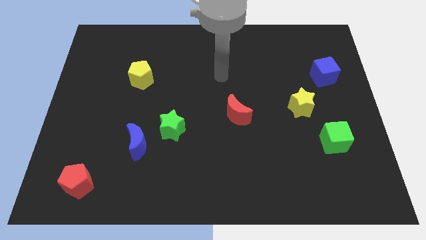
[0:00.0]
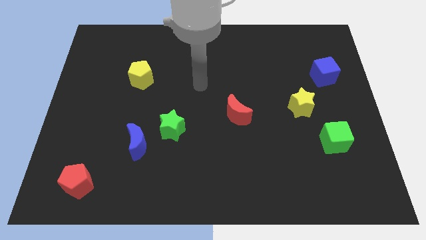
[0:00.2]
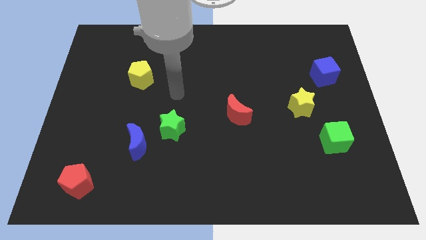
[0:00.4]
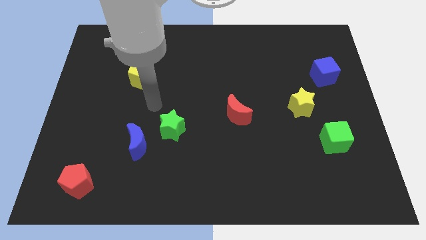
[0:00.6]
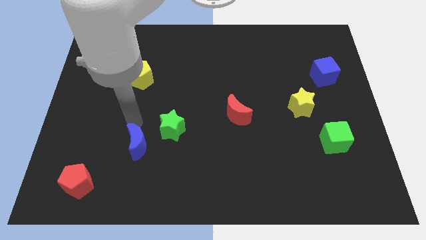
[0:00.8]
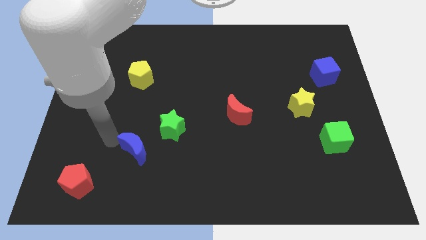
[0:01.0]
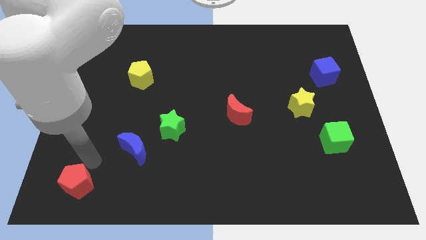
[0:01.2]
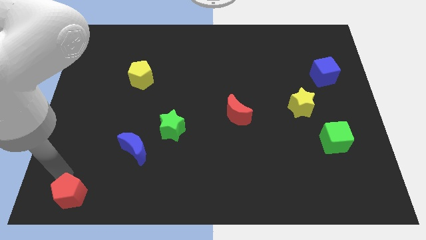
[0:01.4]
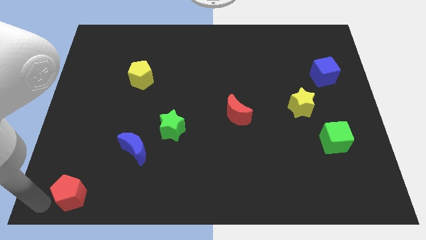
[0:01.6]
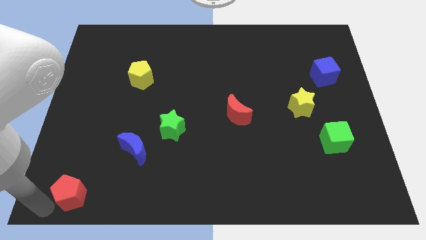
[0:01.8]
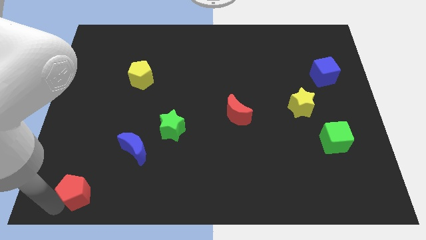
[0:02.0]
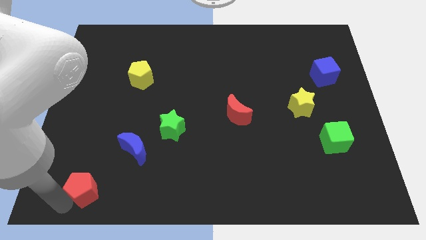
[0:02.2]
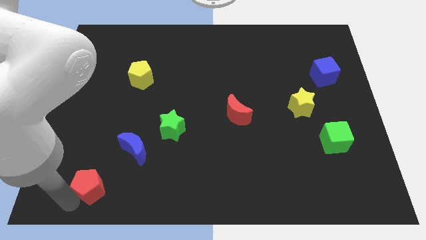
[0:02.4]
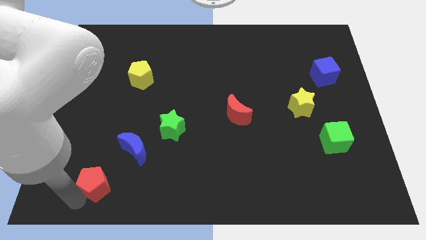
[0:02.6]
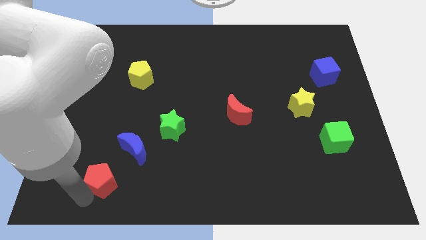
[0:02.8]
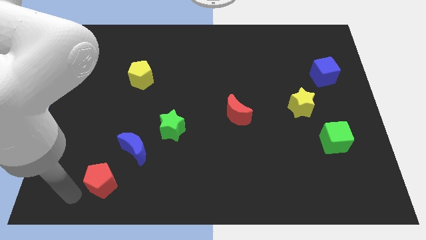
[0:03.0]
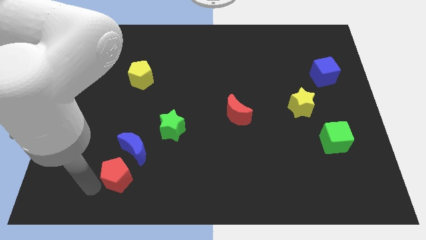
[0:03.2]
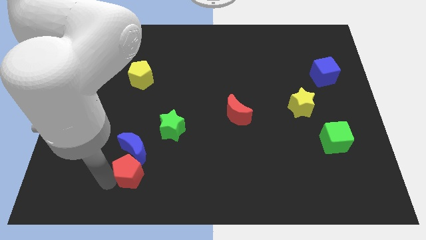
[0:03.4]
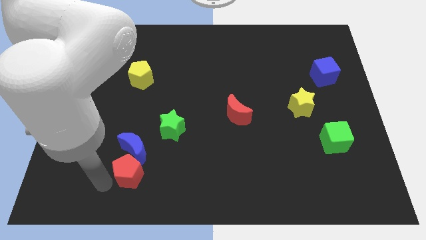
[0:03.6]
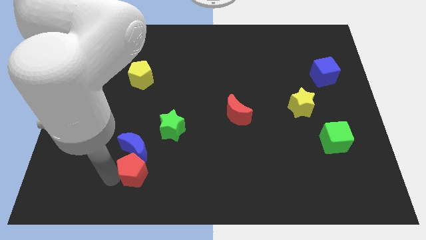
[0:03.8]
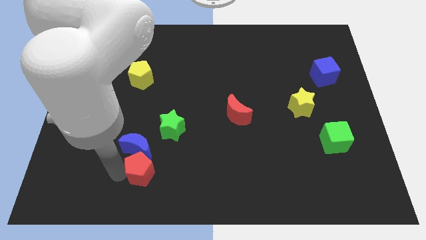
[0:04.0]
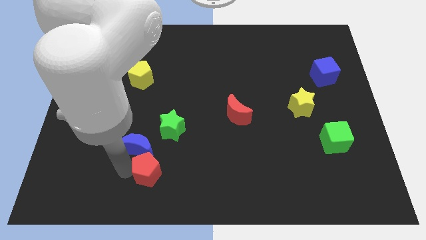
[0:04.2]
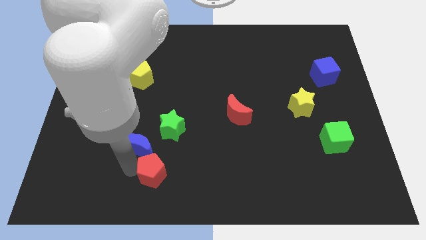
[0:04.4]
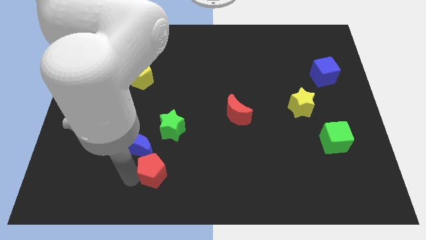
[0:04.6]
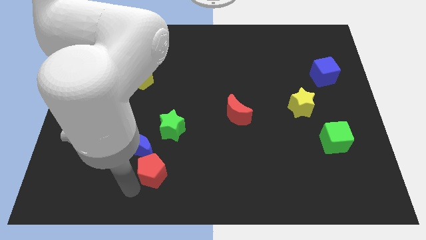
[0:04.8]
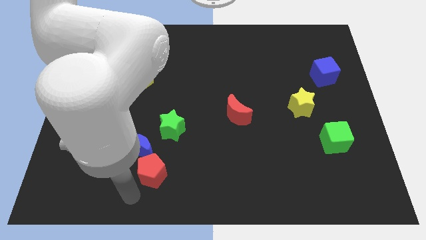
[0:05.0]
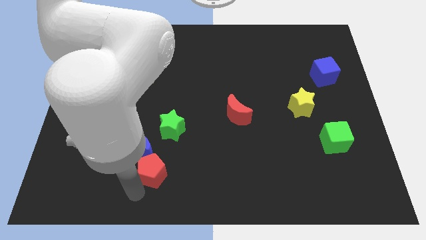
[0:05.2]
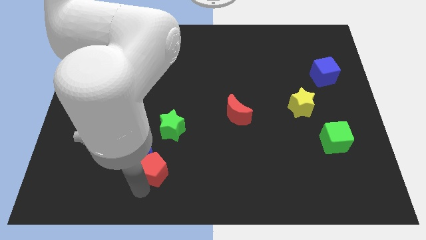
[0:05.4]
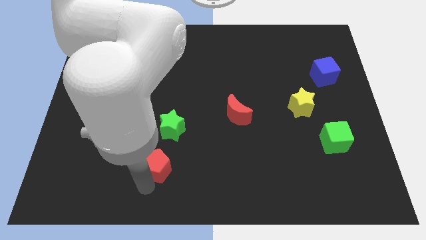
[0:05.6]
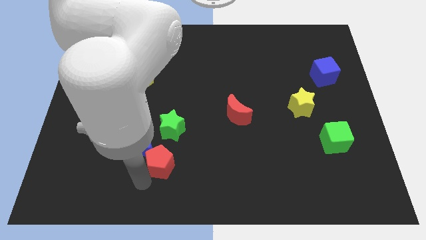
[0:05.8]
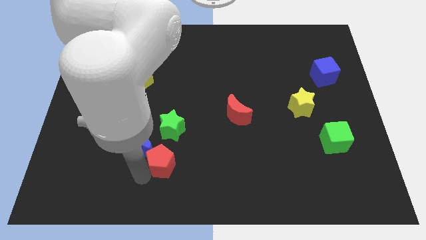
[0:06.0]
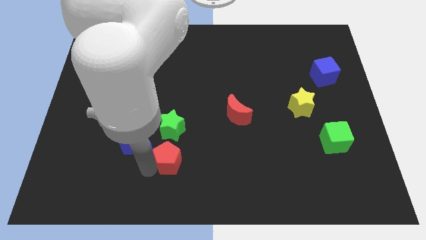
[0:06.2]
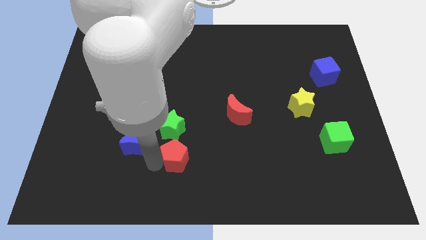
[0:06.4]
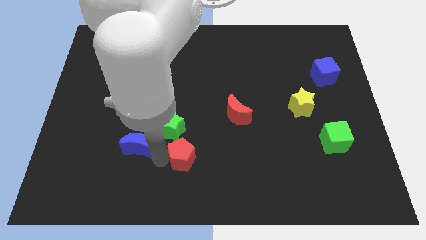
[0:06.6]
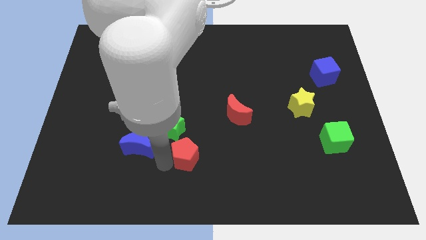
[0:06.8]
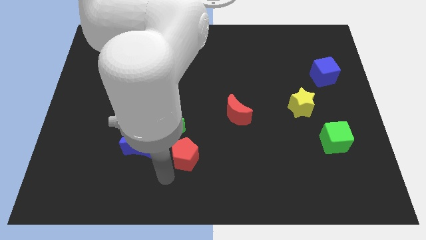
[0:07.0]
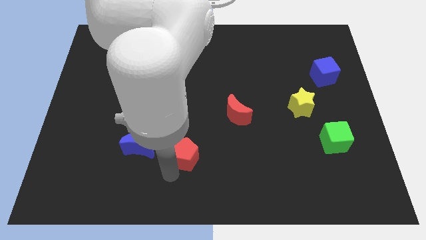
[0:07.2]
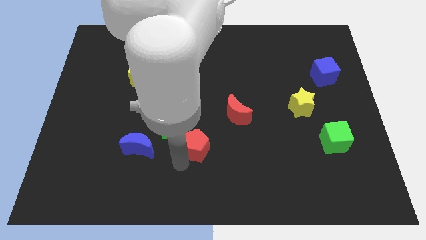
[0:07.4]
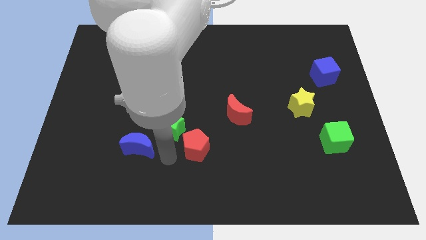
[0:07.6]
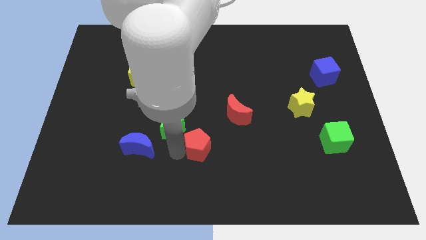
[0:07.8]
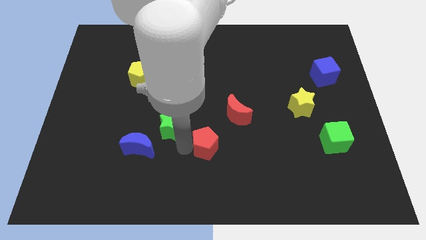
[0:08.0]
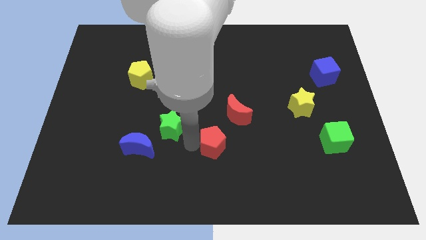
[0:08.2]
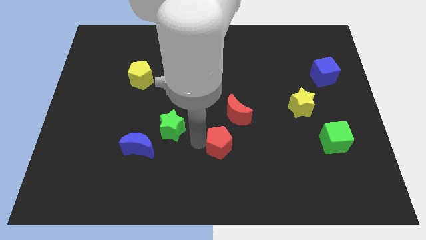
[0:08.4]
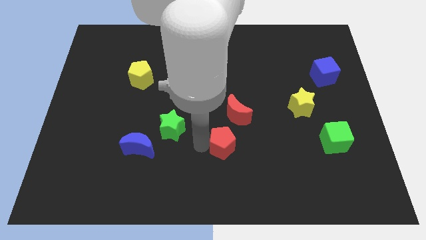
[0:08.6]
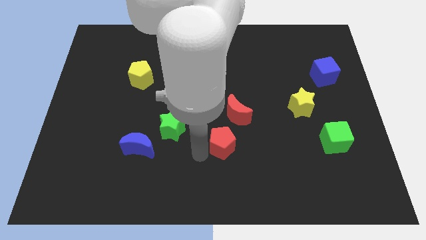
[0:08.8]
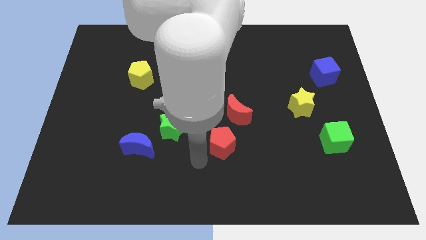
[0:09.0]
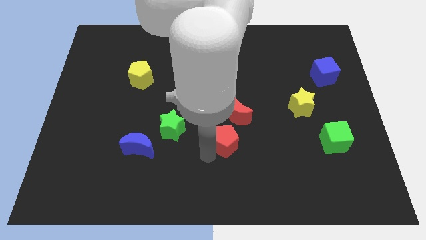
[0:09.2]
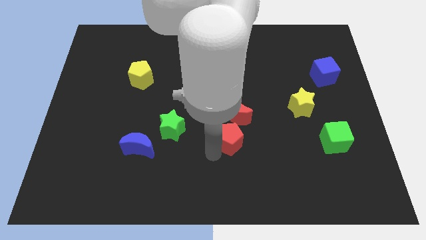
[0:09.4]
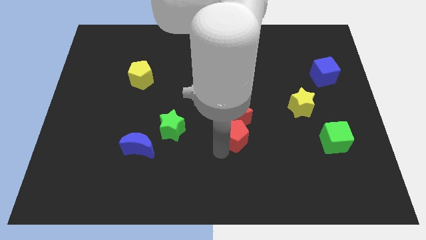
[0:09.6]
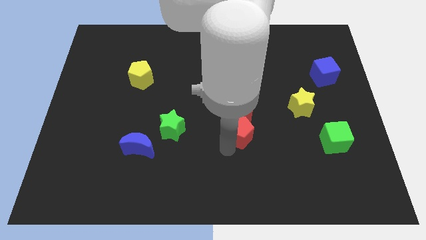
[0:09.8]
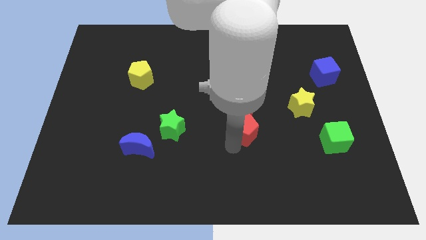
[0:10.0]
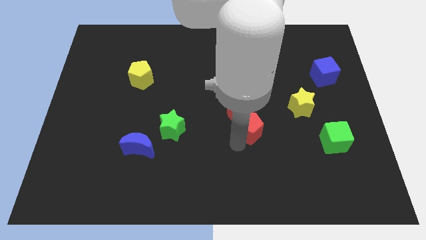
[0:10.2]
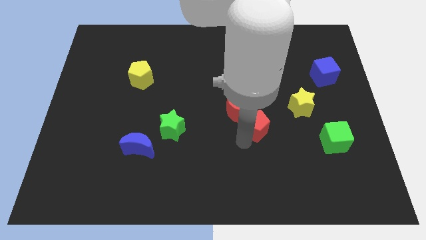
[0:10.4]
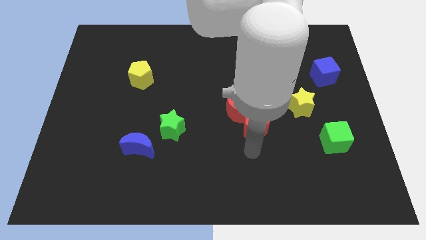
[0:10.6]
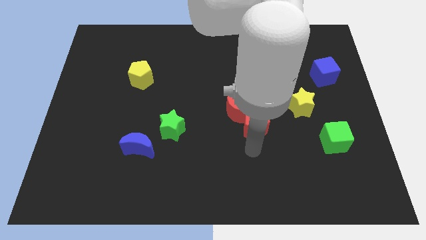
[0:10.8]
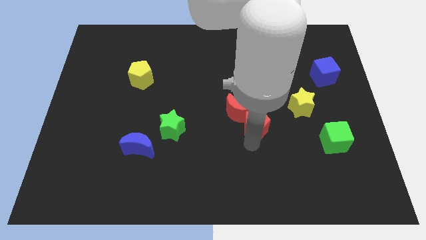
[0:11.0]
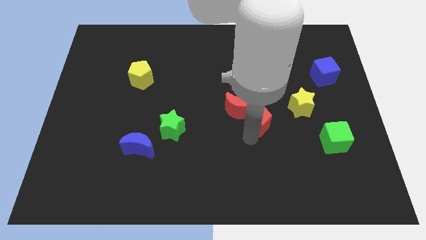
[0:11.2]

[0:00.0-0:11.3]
put the red pentagon to the left side of the yellow star
